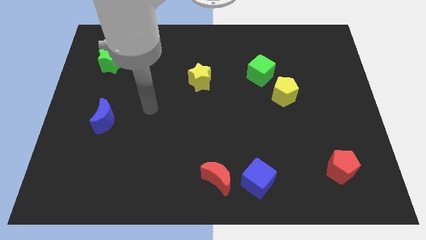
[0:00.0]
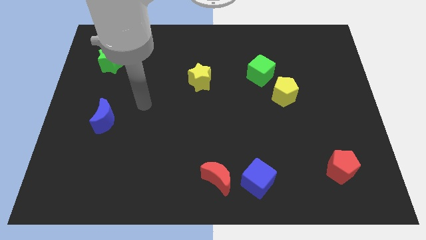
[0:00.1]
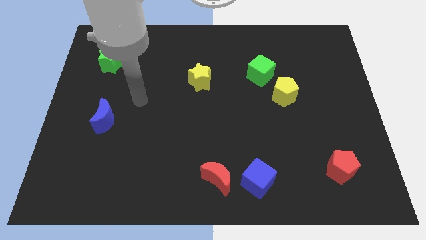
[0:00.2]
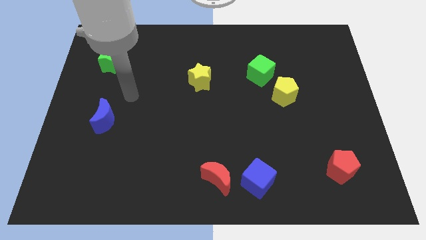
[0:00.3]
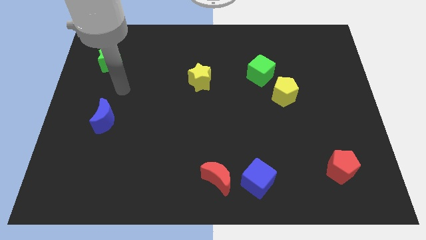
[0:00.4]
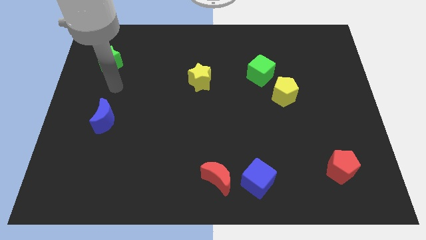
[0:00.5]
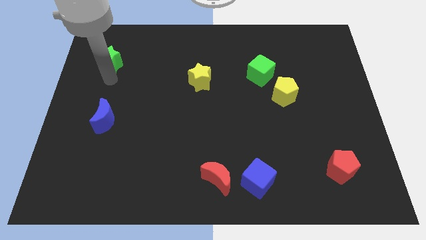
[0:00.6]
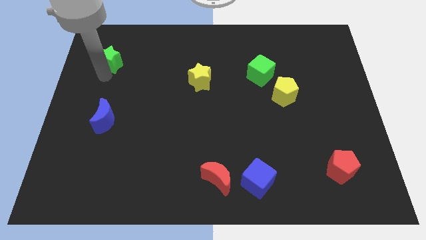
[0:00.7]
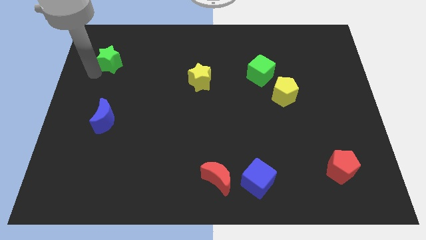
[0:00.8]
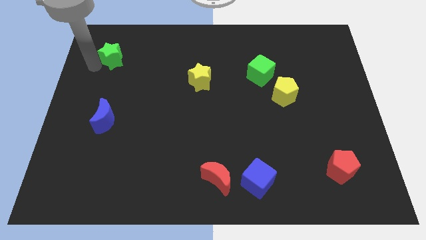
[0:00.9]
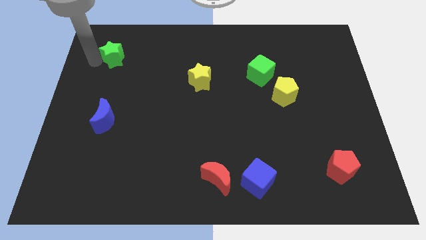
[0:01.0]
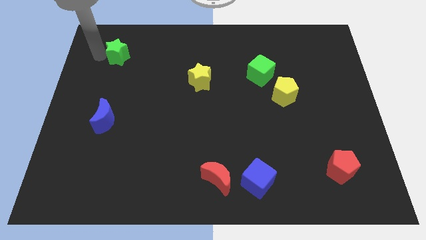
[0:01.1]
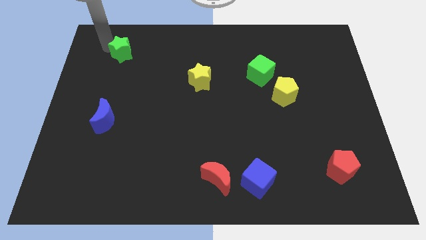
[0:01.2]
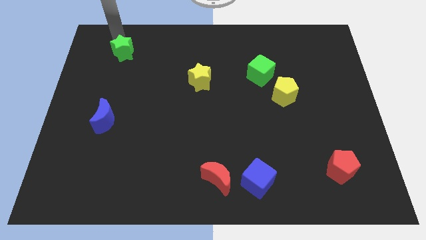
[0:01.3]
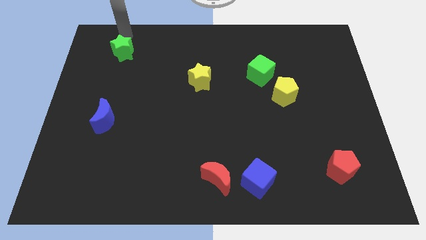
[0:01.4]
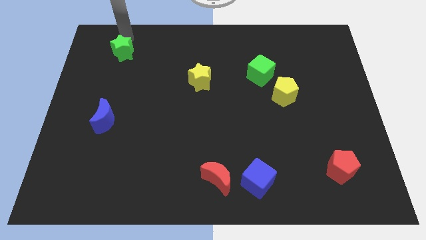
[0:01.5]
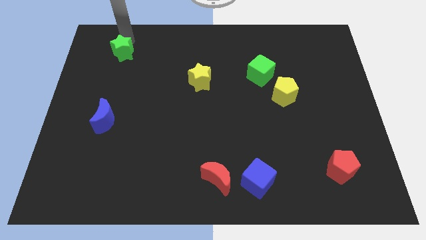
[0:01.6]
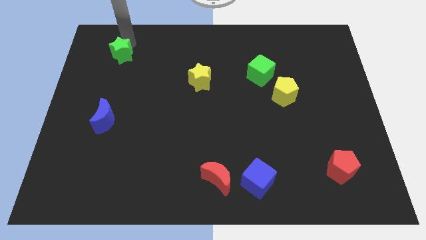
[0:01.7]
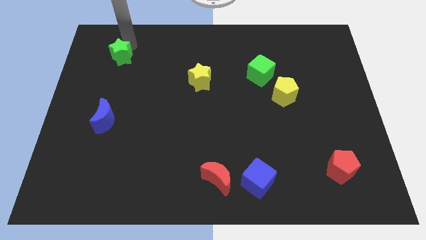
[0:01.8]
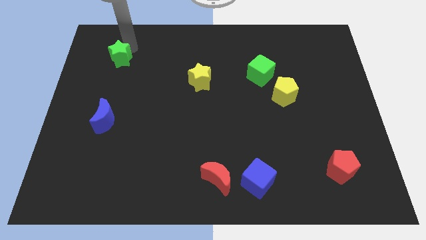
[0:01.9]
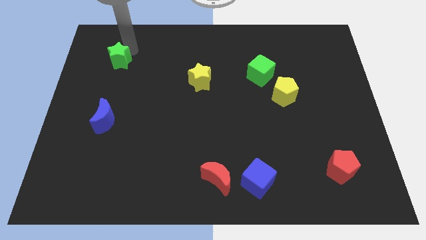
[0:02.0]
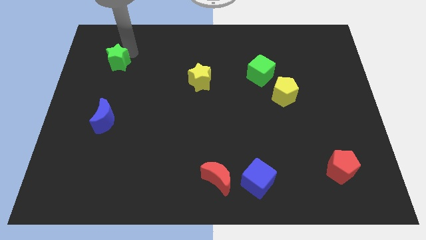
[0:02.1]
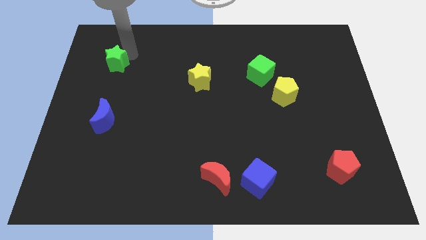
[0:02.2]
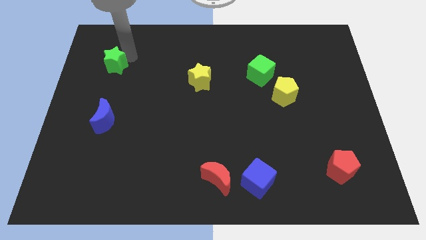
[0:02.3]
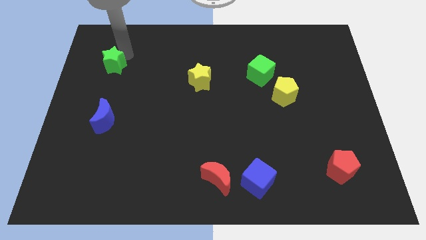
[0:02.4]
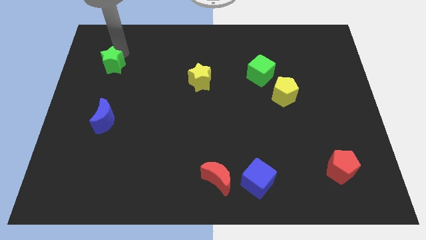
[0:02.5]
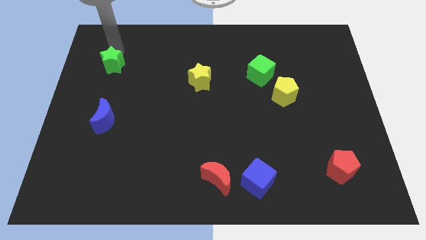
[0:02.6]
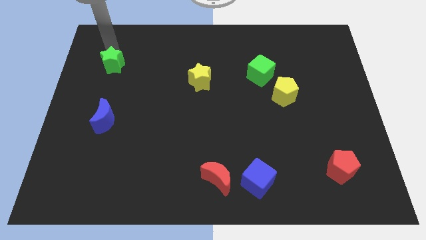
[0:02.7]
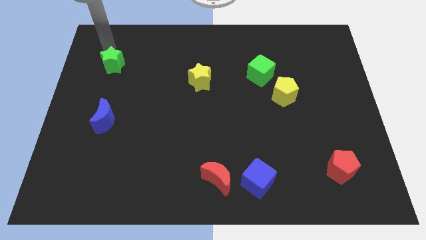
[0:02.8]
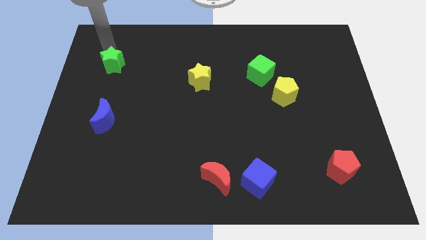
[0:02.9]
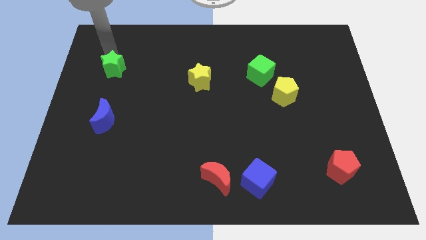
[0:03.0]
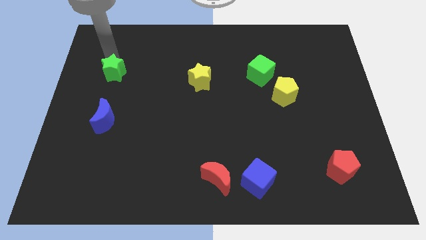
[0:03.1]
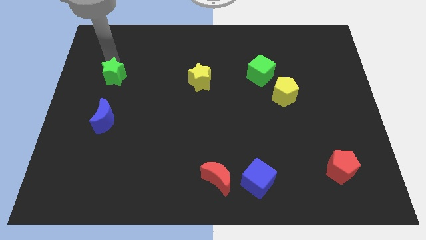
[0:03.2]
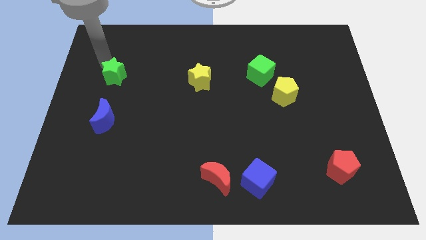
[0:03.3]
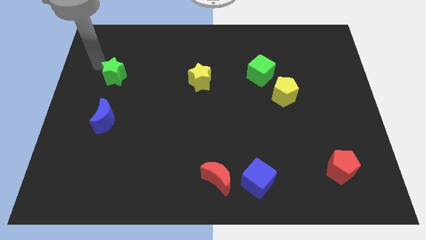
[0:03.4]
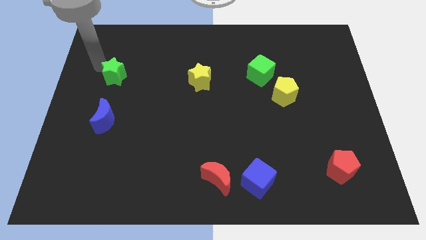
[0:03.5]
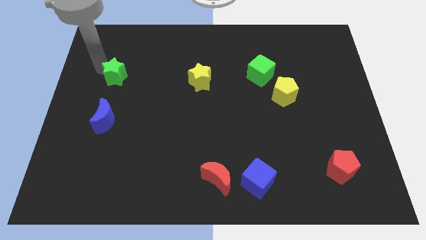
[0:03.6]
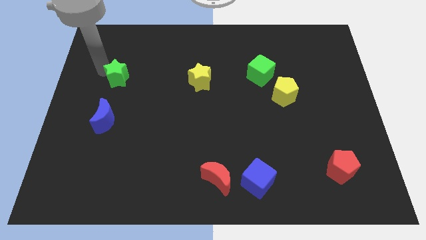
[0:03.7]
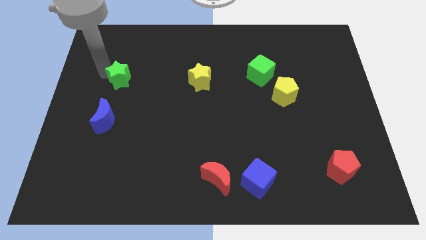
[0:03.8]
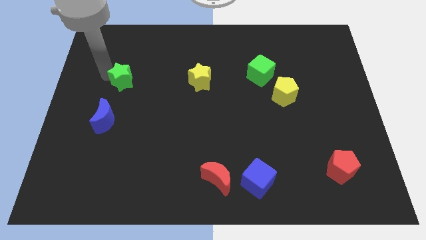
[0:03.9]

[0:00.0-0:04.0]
slightly move the green star downwards and then right

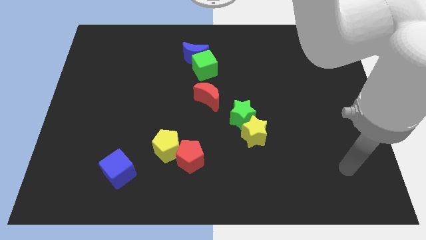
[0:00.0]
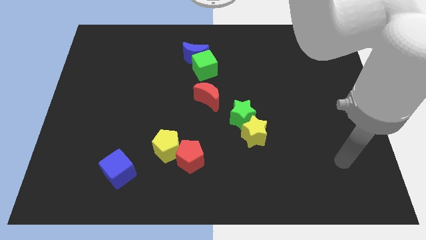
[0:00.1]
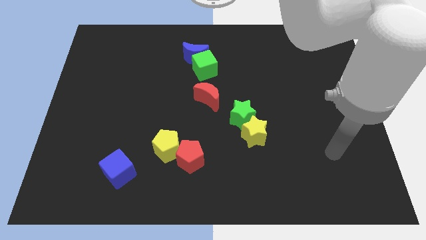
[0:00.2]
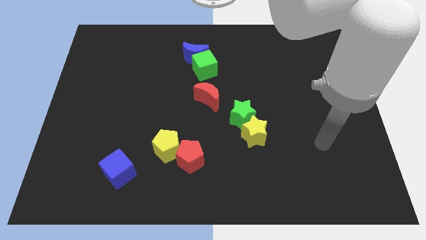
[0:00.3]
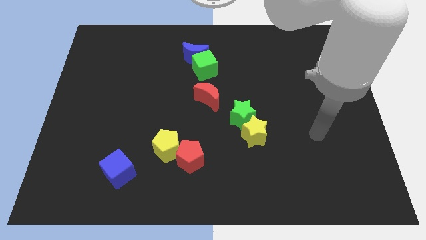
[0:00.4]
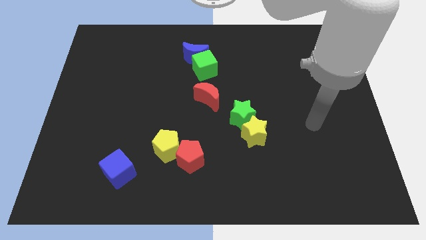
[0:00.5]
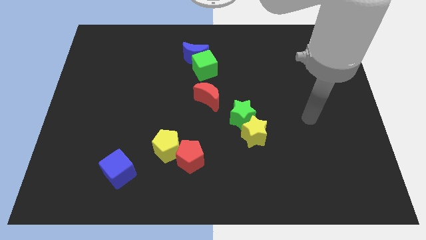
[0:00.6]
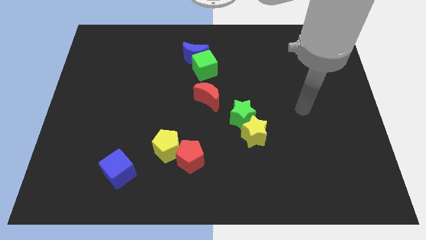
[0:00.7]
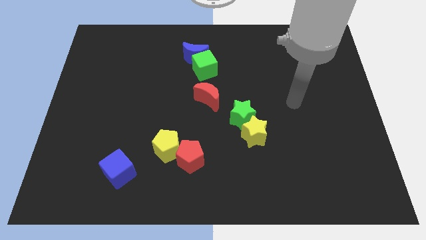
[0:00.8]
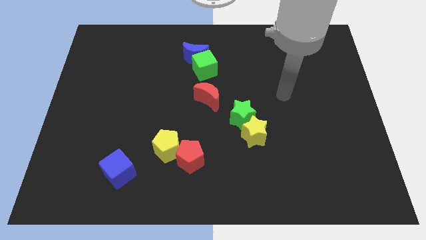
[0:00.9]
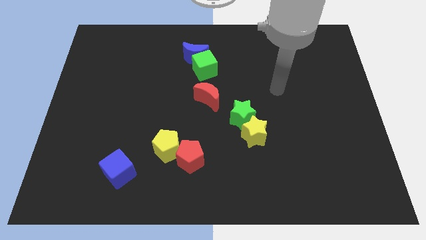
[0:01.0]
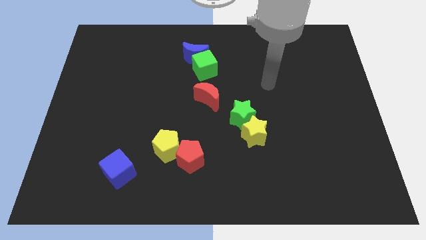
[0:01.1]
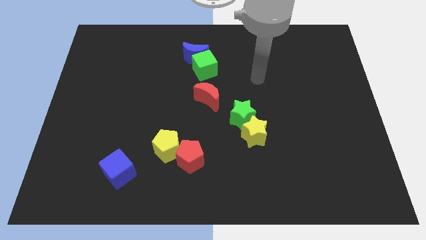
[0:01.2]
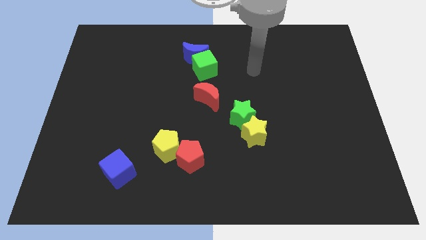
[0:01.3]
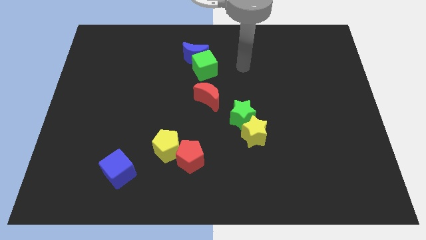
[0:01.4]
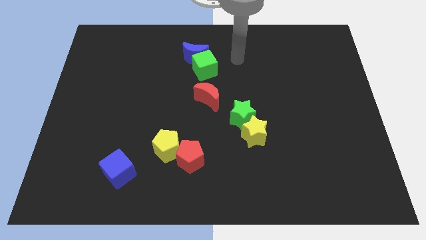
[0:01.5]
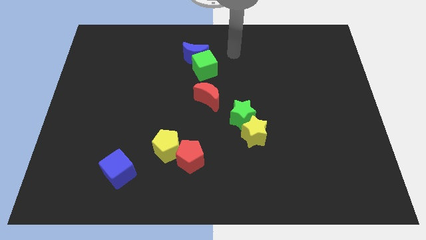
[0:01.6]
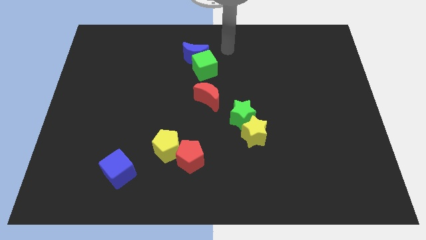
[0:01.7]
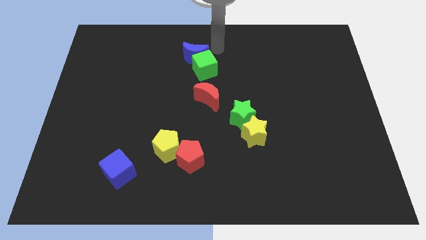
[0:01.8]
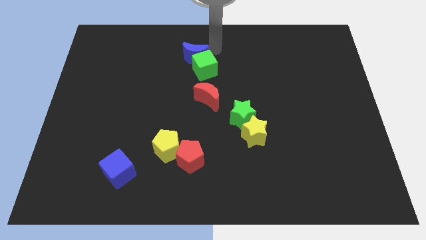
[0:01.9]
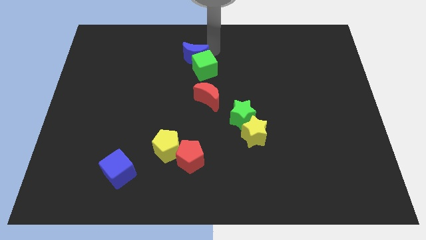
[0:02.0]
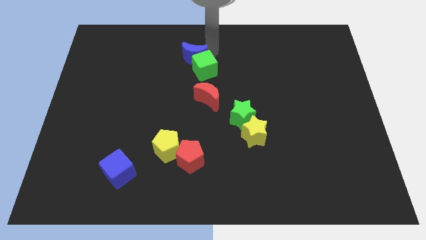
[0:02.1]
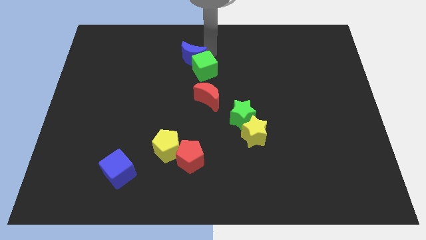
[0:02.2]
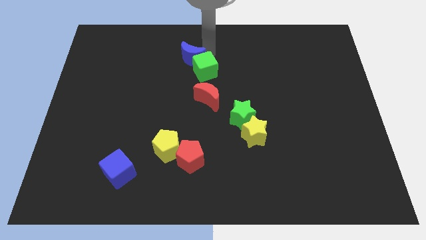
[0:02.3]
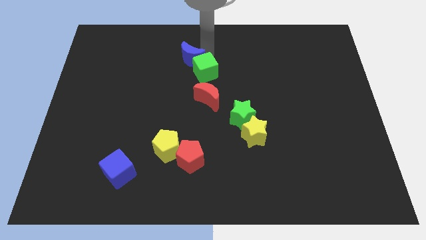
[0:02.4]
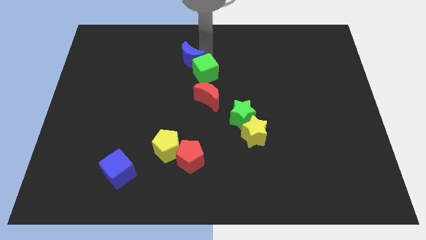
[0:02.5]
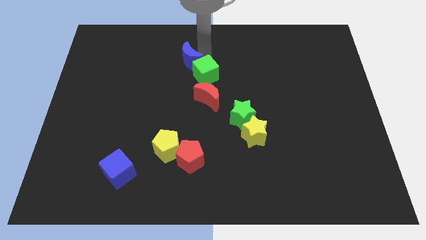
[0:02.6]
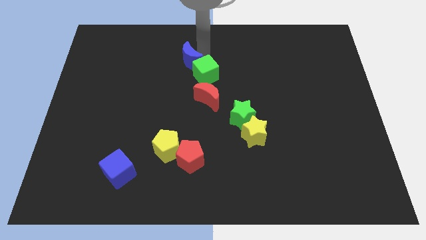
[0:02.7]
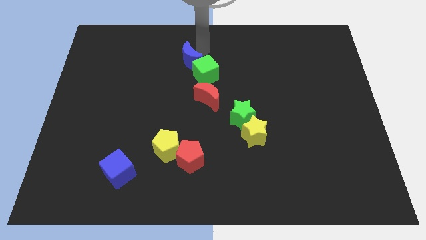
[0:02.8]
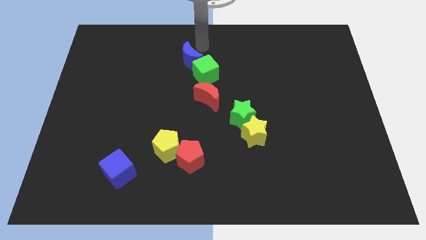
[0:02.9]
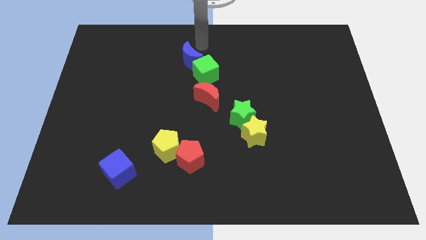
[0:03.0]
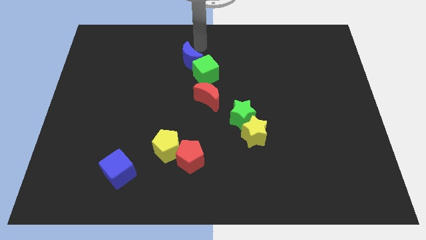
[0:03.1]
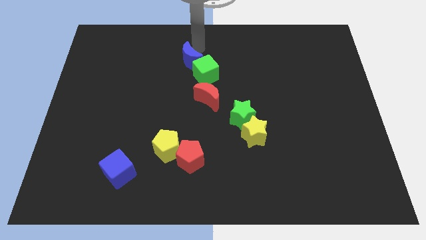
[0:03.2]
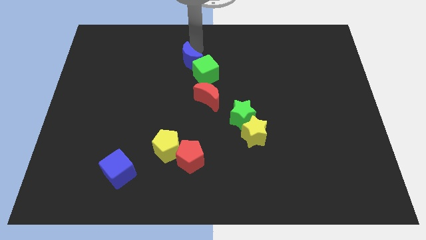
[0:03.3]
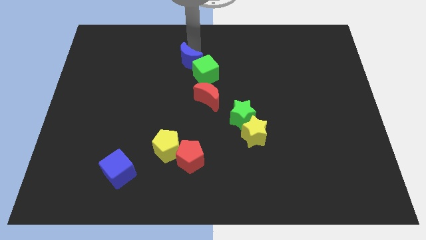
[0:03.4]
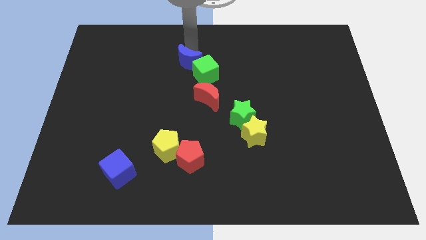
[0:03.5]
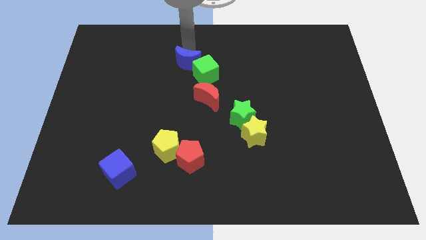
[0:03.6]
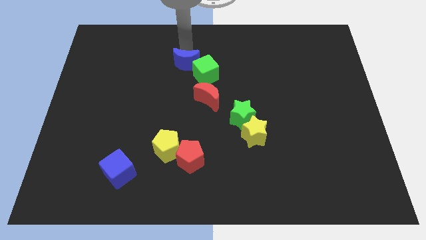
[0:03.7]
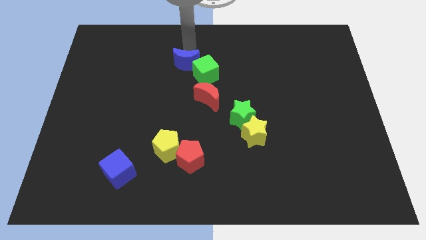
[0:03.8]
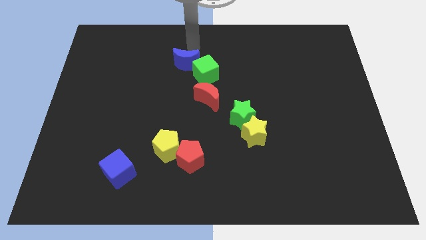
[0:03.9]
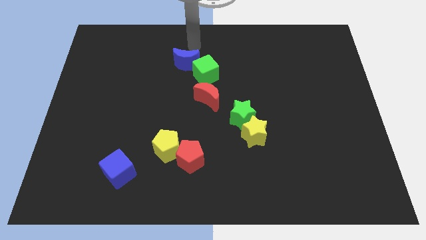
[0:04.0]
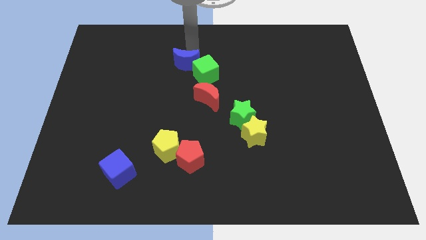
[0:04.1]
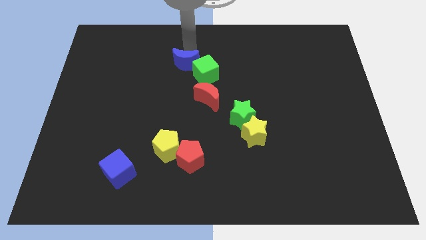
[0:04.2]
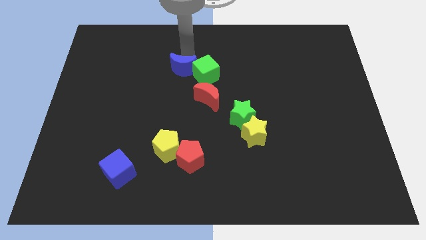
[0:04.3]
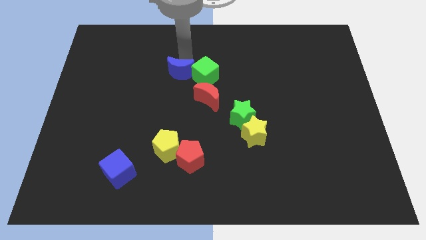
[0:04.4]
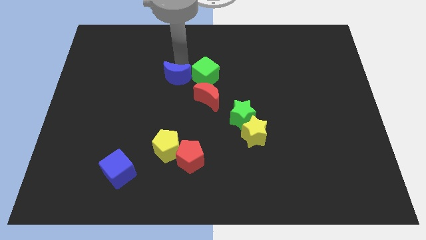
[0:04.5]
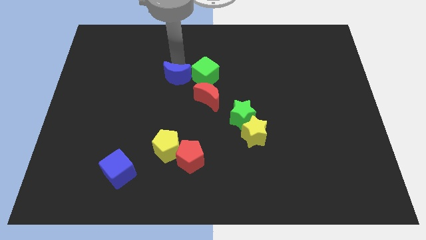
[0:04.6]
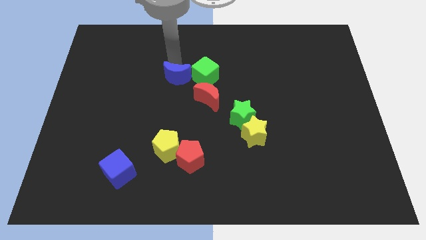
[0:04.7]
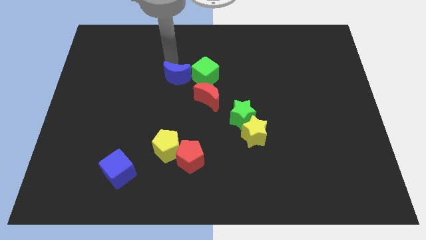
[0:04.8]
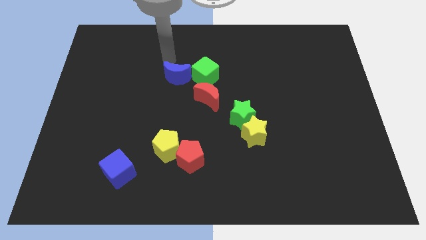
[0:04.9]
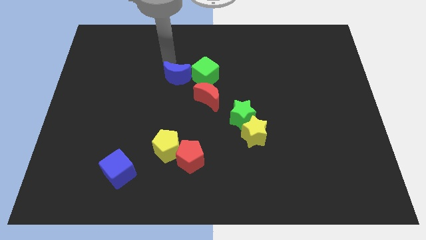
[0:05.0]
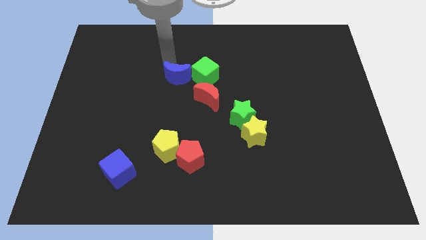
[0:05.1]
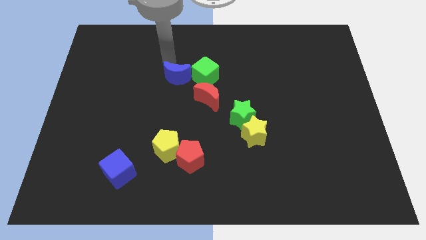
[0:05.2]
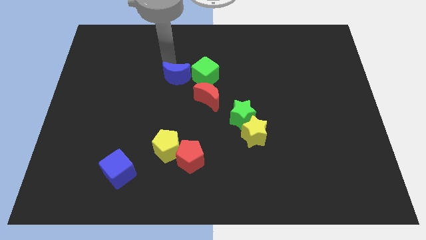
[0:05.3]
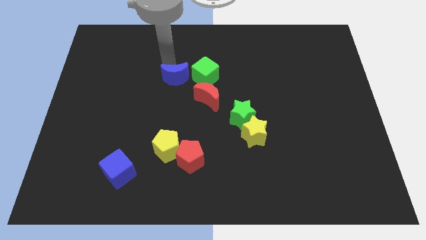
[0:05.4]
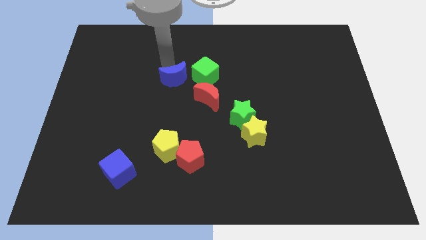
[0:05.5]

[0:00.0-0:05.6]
slightly push the blue moon downwards
